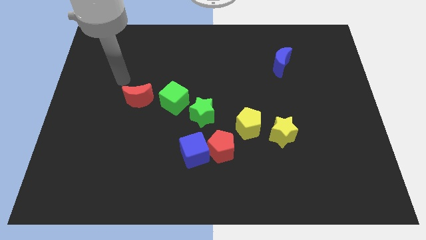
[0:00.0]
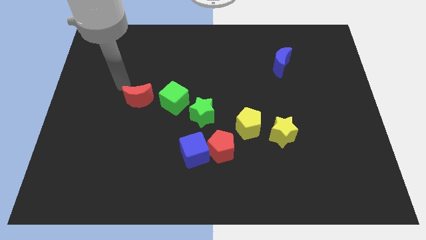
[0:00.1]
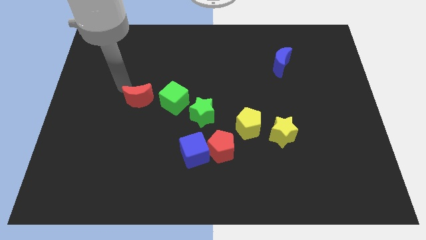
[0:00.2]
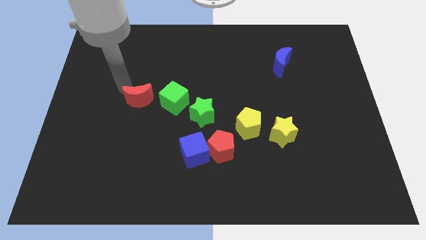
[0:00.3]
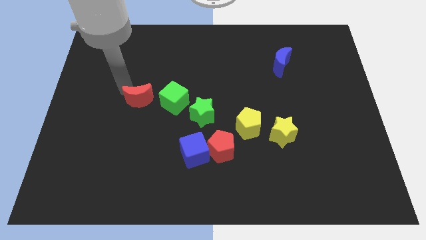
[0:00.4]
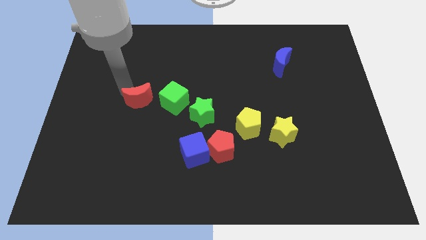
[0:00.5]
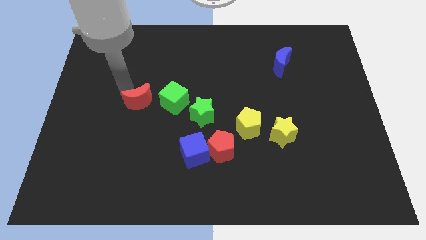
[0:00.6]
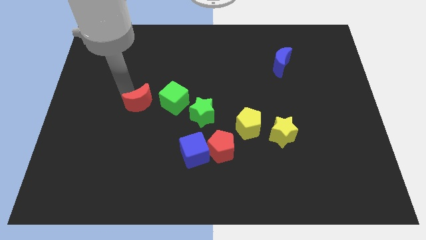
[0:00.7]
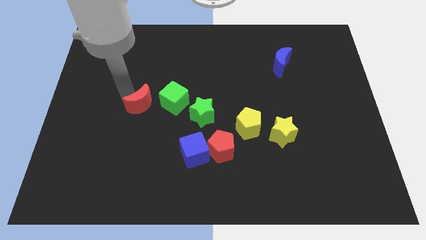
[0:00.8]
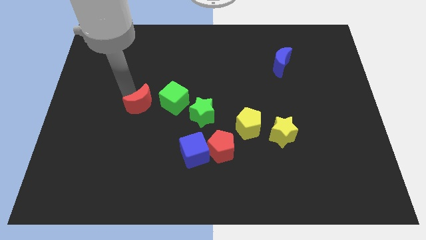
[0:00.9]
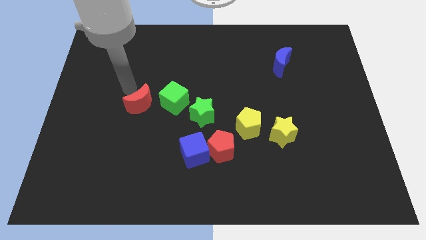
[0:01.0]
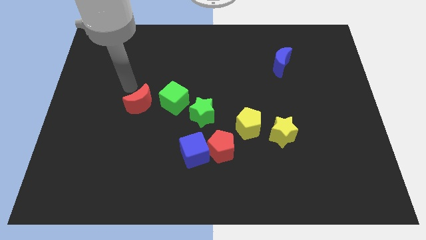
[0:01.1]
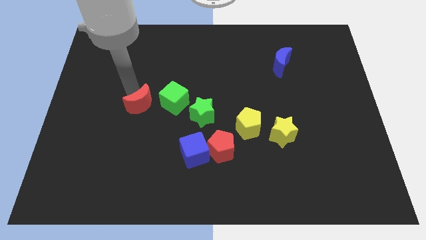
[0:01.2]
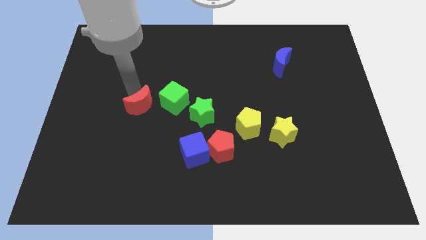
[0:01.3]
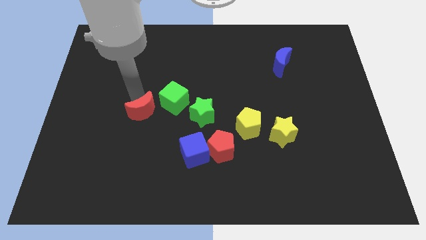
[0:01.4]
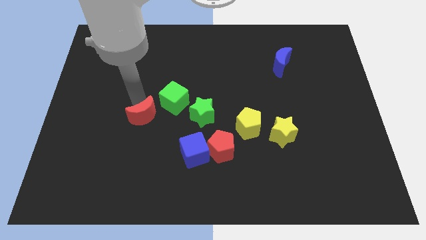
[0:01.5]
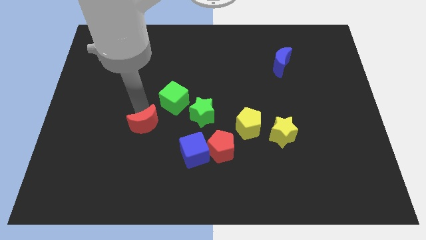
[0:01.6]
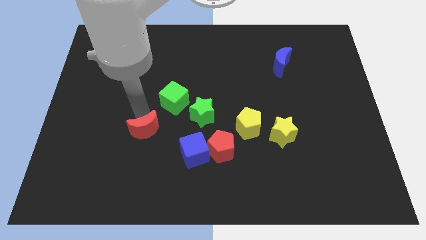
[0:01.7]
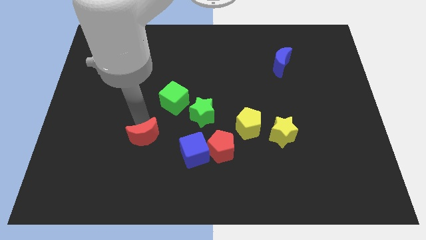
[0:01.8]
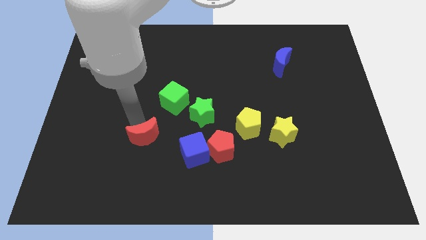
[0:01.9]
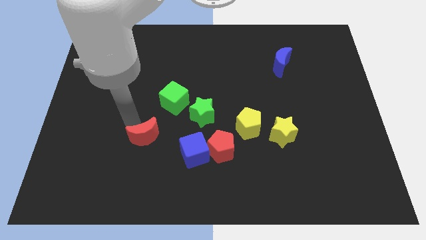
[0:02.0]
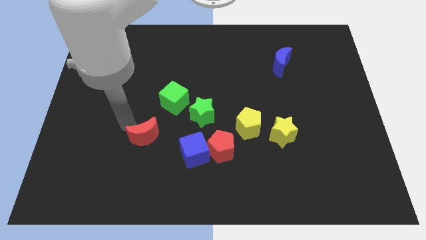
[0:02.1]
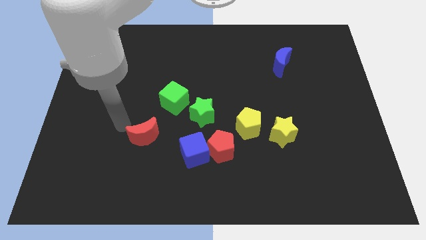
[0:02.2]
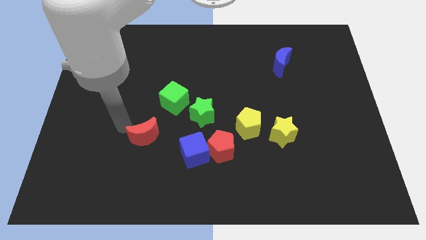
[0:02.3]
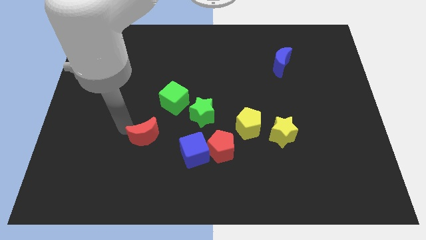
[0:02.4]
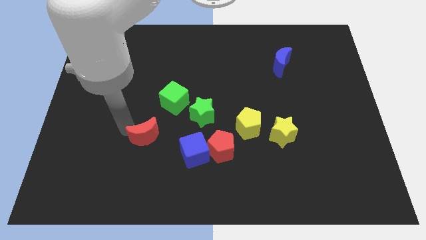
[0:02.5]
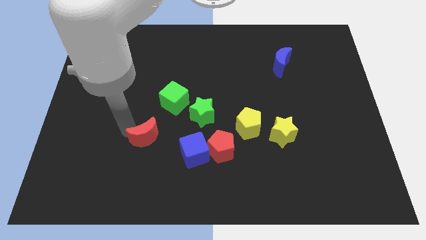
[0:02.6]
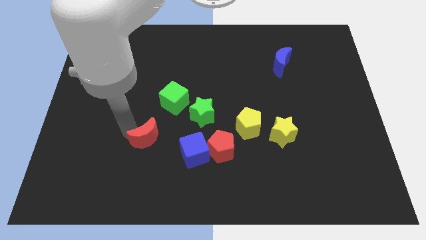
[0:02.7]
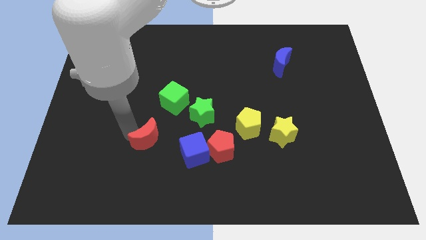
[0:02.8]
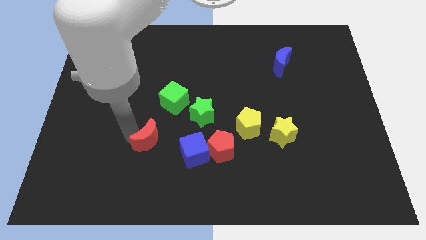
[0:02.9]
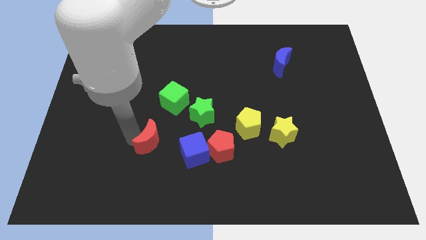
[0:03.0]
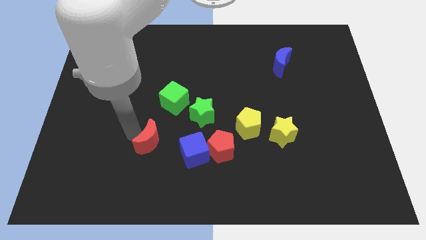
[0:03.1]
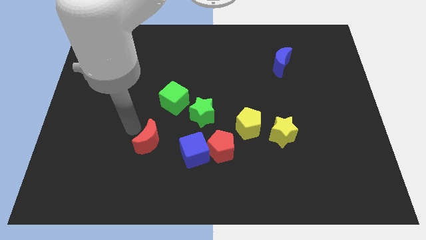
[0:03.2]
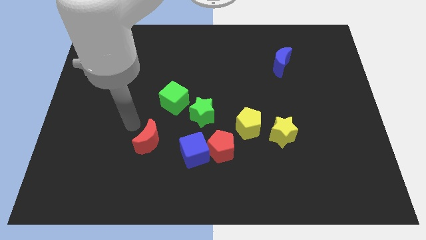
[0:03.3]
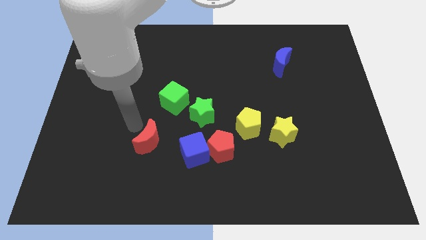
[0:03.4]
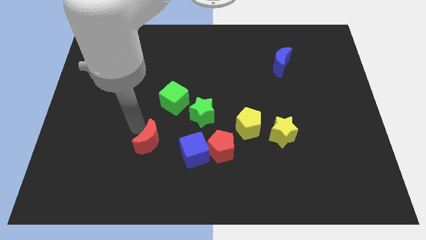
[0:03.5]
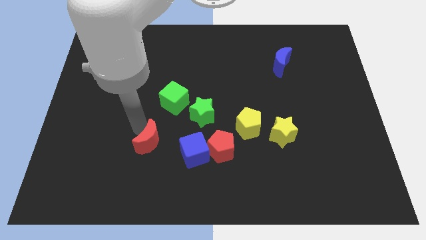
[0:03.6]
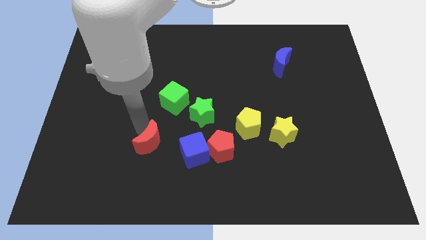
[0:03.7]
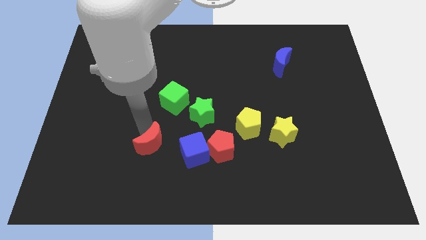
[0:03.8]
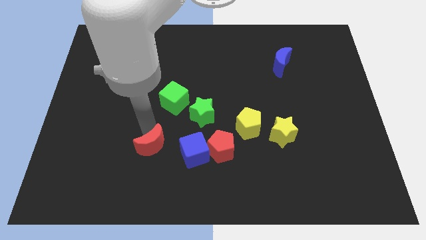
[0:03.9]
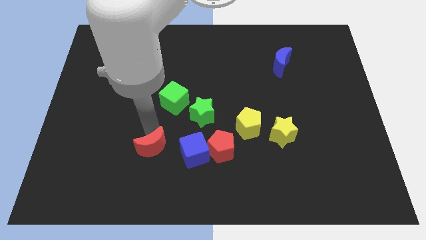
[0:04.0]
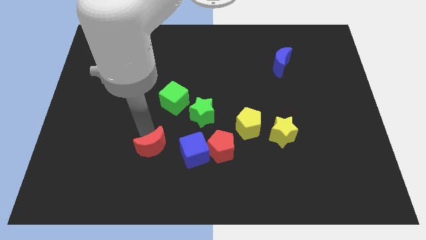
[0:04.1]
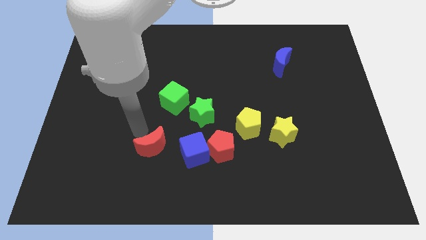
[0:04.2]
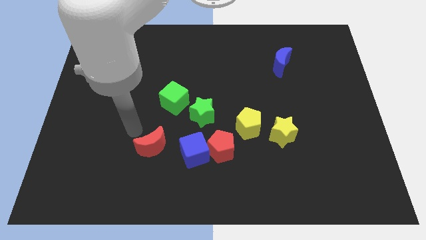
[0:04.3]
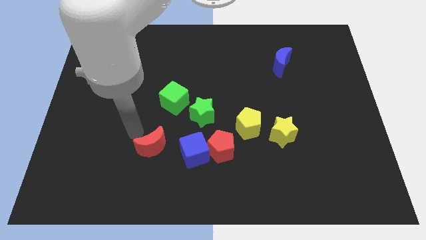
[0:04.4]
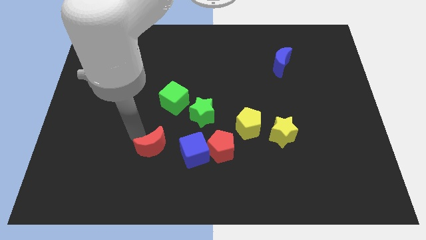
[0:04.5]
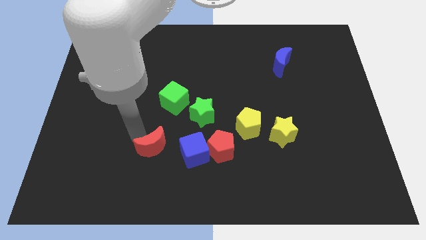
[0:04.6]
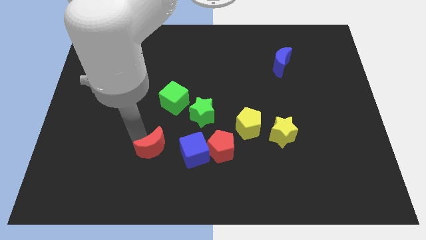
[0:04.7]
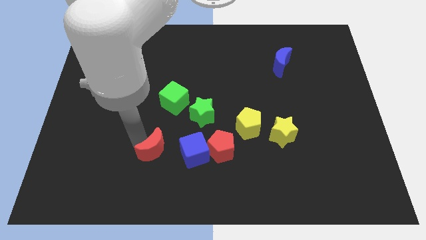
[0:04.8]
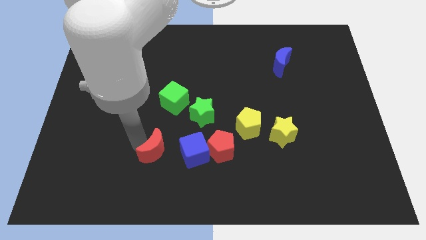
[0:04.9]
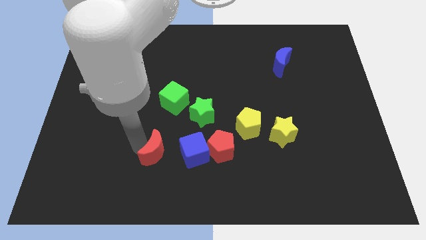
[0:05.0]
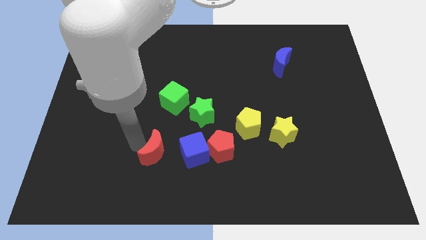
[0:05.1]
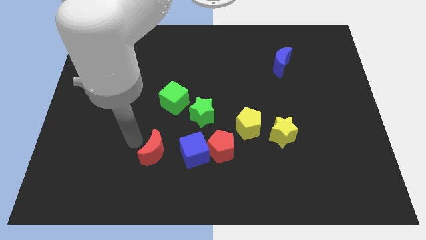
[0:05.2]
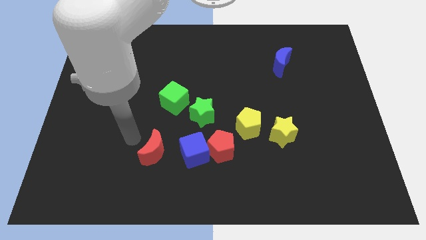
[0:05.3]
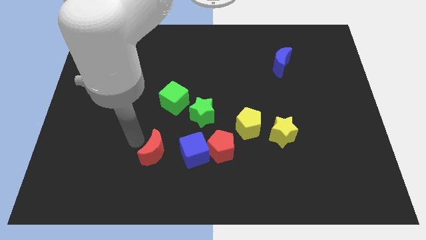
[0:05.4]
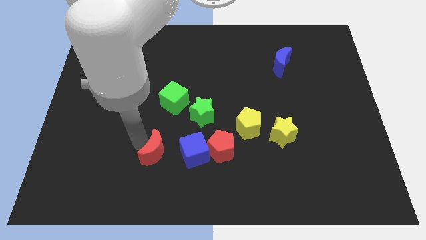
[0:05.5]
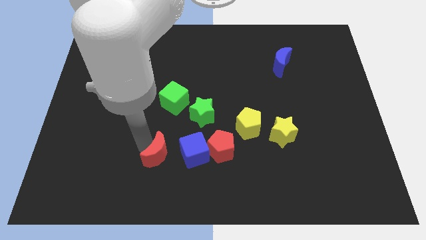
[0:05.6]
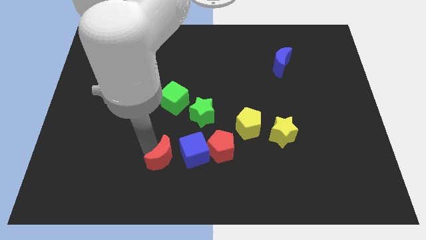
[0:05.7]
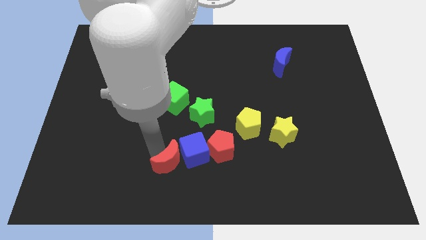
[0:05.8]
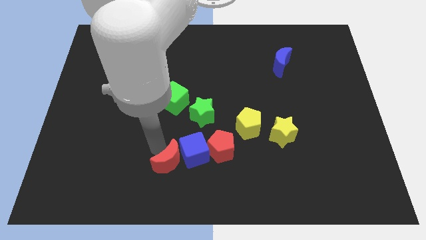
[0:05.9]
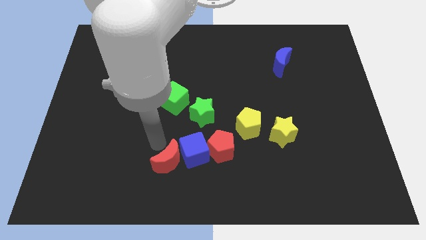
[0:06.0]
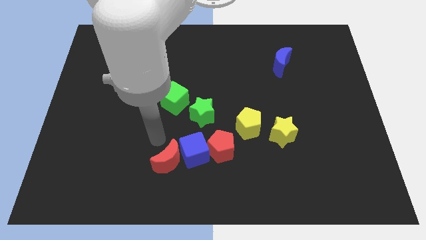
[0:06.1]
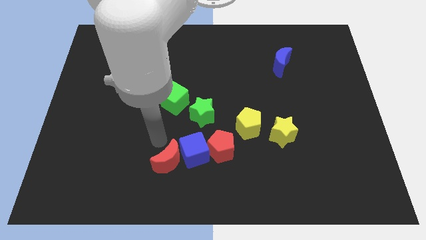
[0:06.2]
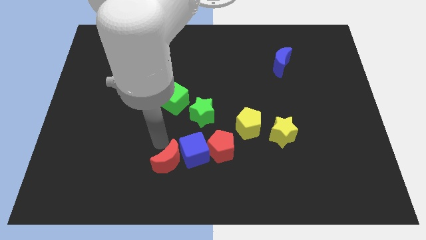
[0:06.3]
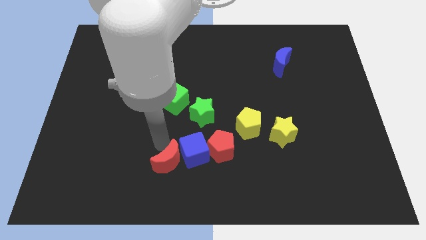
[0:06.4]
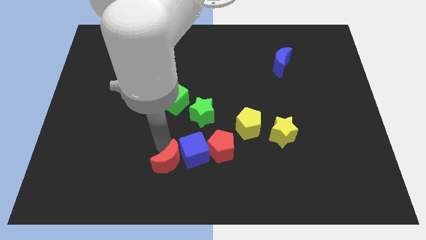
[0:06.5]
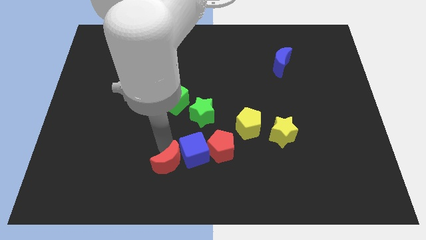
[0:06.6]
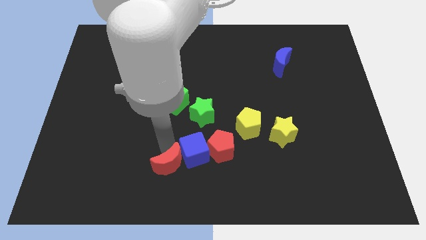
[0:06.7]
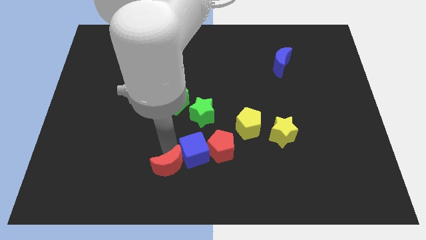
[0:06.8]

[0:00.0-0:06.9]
put the red moon to the bottom
